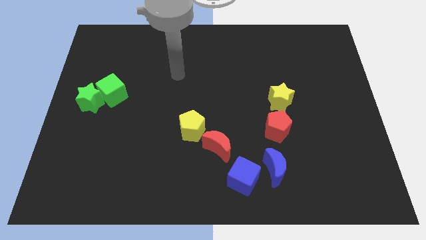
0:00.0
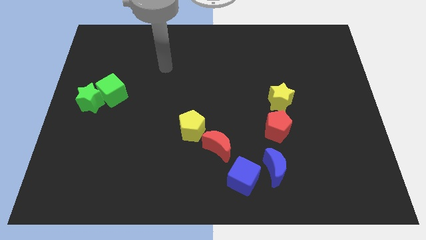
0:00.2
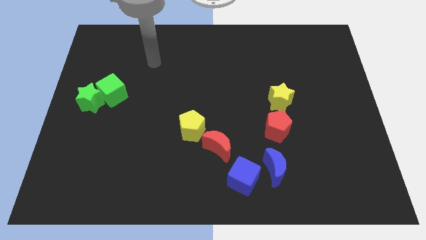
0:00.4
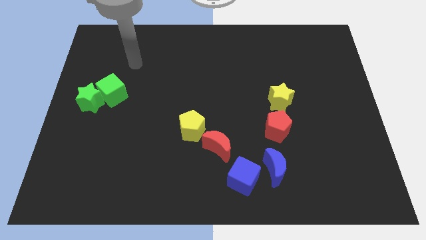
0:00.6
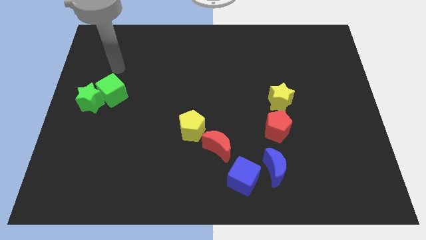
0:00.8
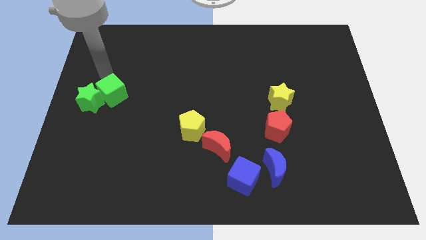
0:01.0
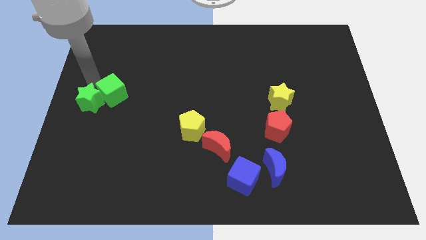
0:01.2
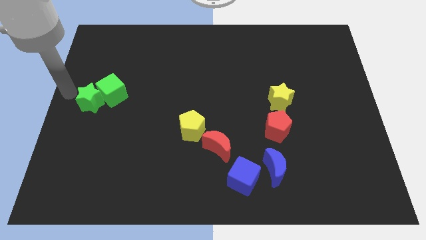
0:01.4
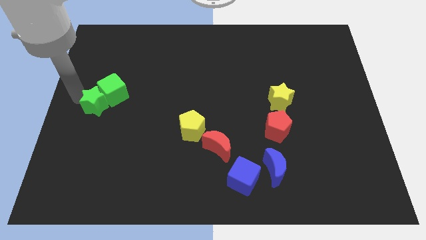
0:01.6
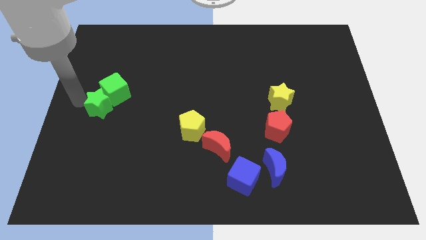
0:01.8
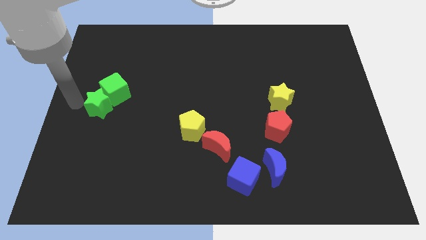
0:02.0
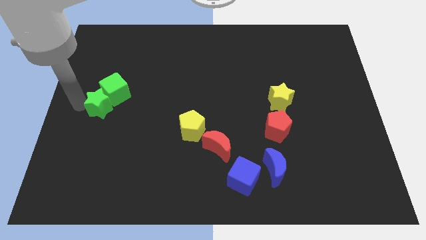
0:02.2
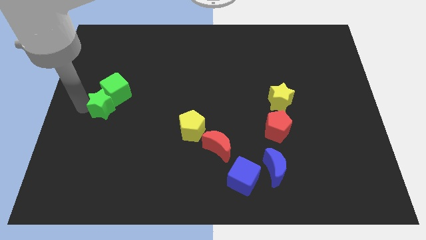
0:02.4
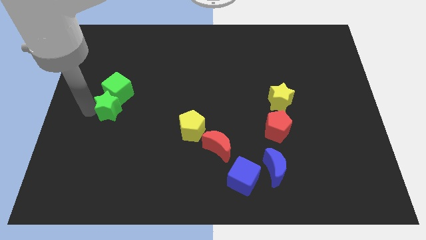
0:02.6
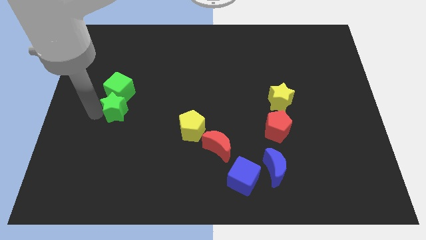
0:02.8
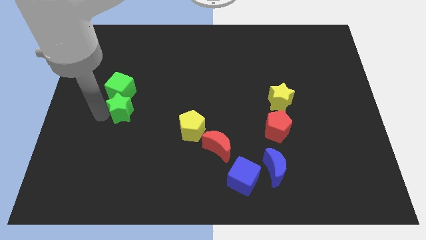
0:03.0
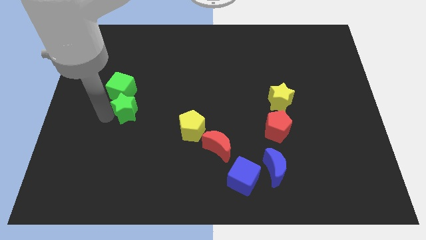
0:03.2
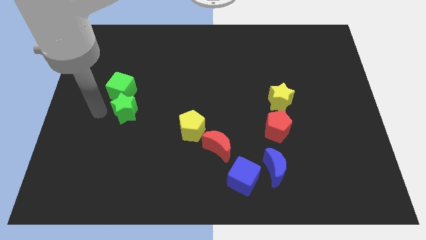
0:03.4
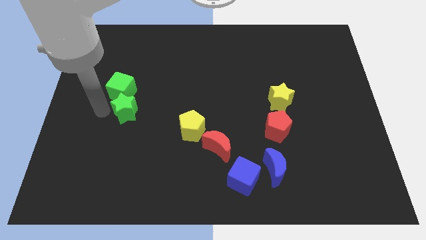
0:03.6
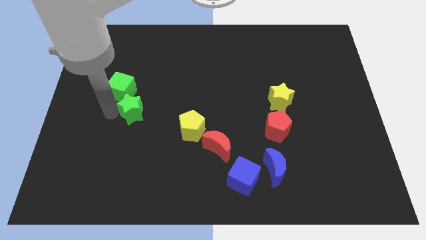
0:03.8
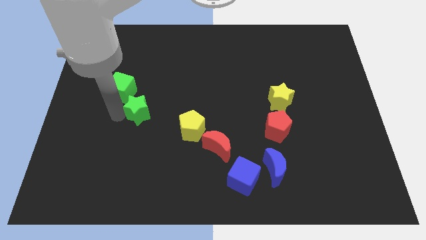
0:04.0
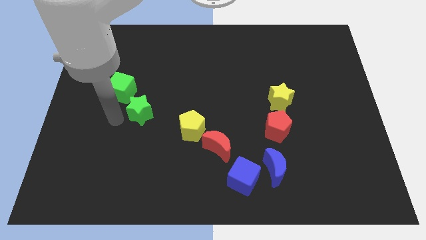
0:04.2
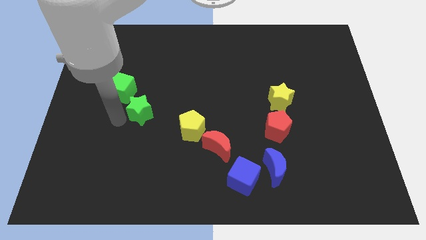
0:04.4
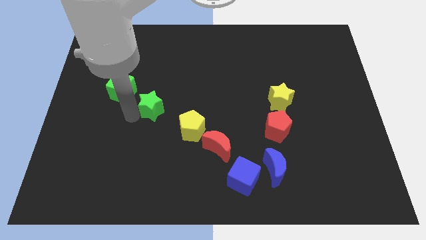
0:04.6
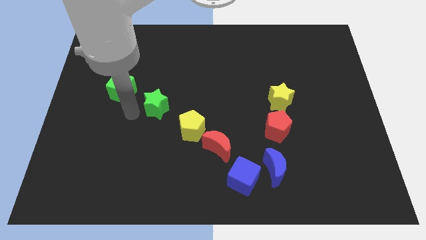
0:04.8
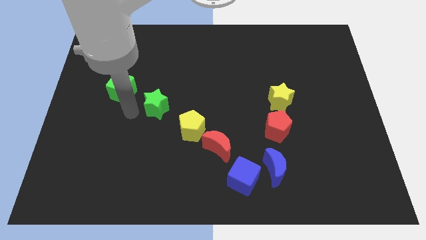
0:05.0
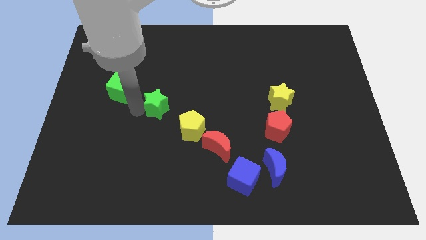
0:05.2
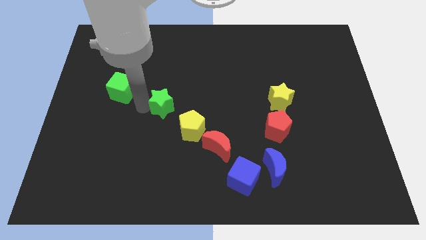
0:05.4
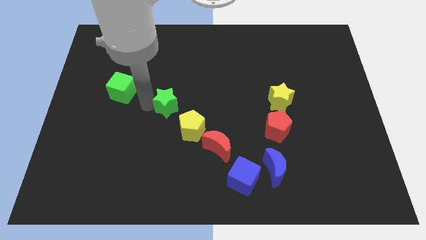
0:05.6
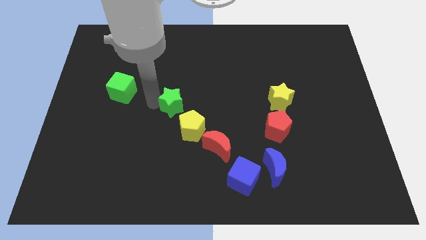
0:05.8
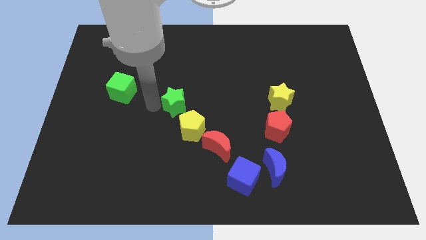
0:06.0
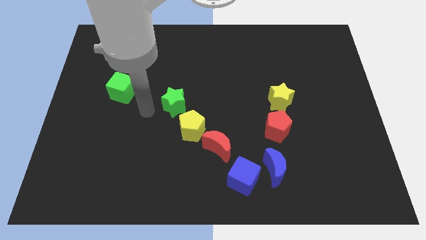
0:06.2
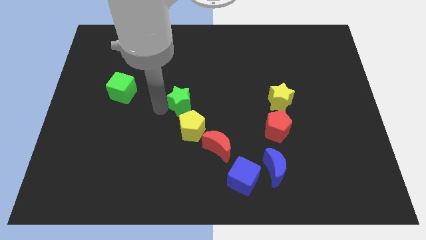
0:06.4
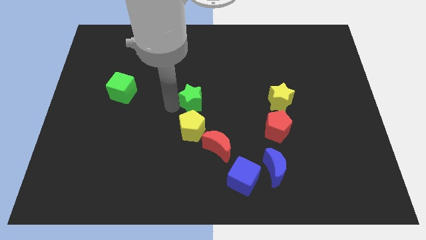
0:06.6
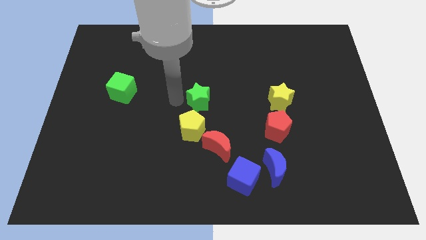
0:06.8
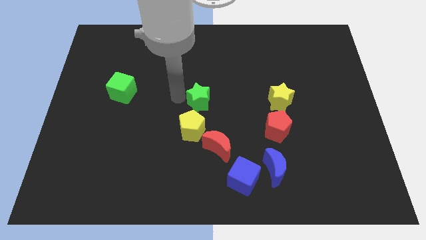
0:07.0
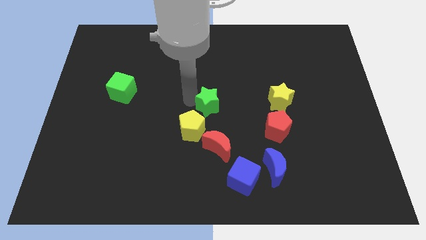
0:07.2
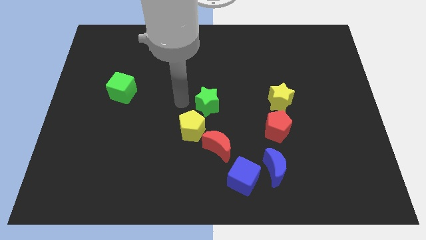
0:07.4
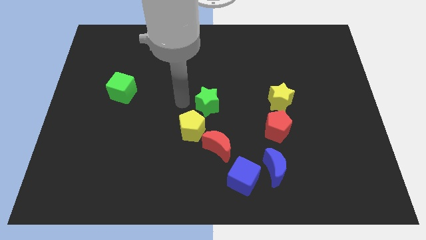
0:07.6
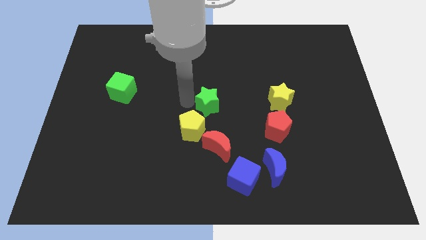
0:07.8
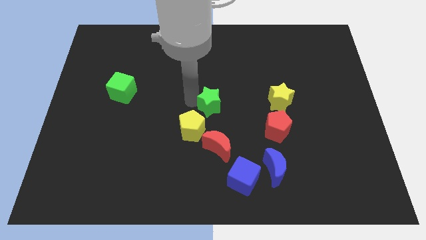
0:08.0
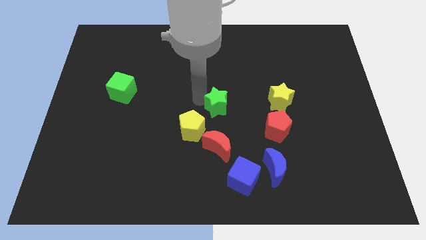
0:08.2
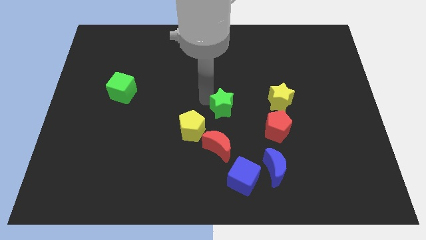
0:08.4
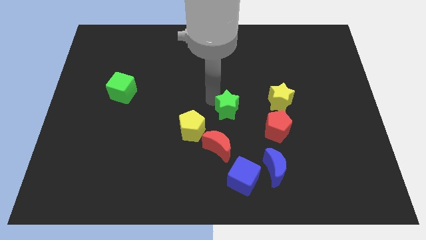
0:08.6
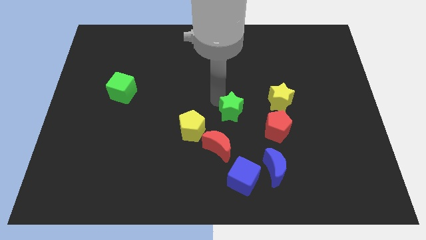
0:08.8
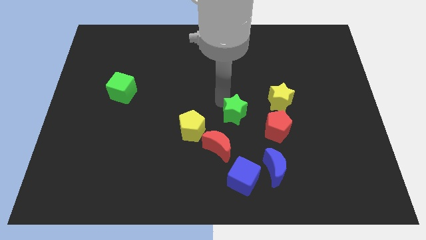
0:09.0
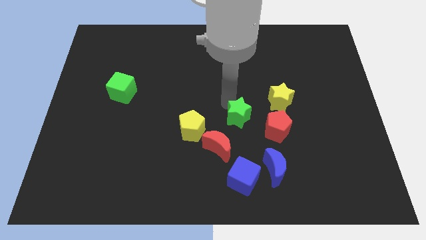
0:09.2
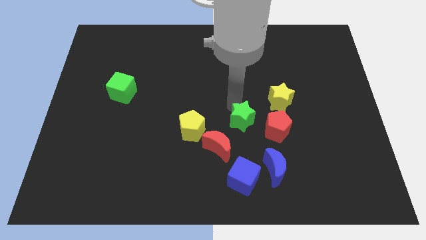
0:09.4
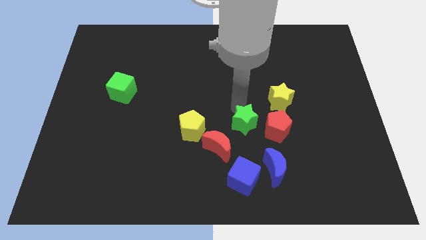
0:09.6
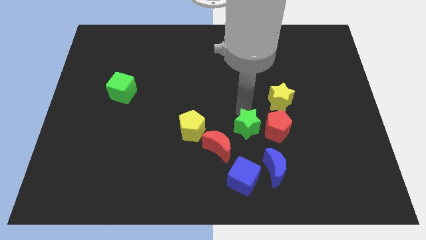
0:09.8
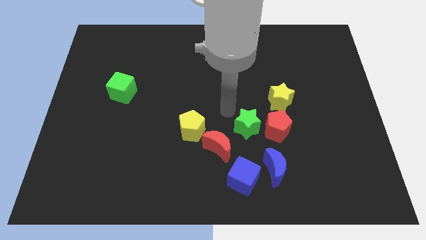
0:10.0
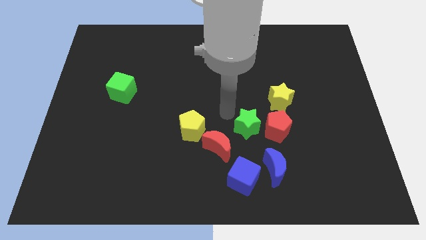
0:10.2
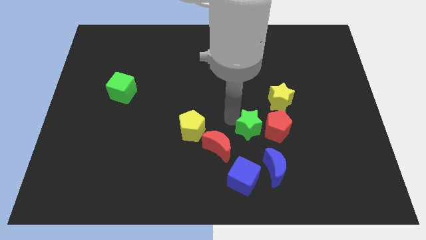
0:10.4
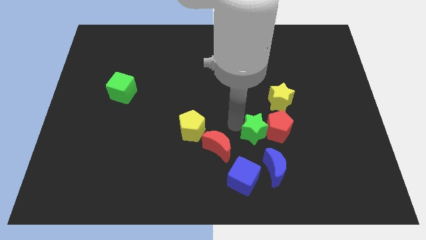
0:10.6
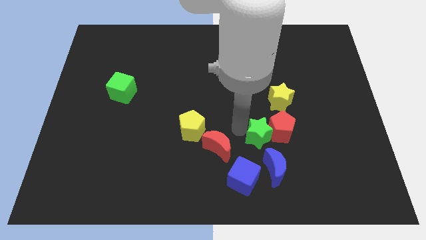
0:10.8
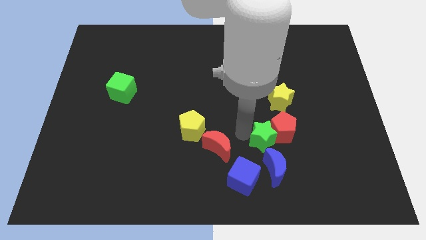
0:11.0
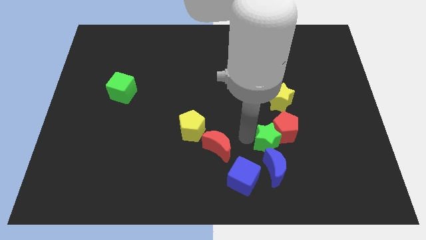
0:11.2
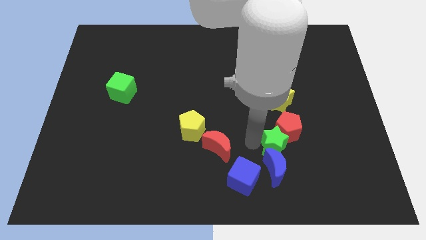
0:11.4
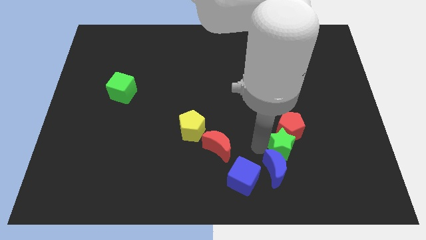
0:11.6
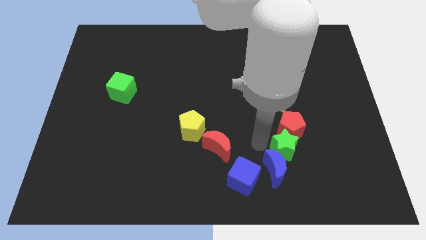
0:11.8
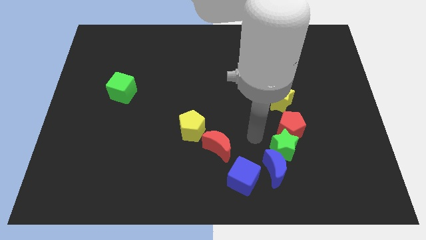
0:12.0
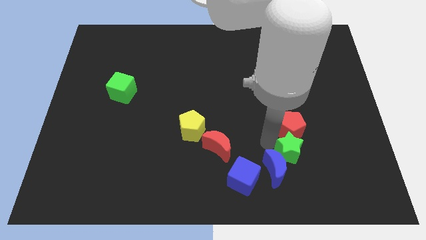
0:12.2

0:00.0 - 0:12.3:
push the green star right of the blue moon

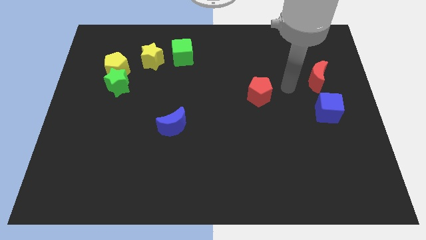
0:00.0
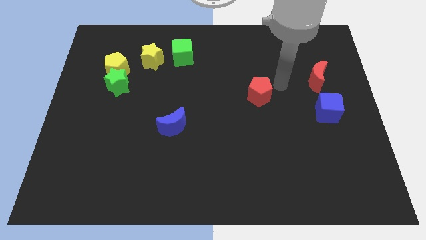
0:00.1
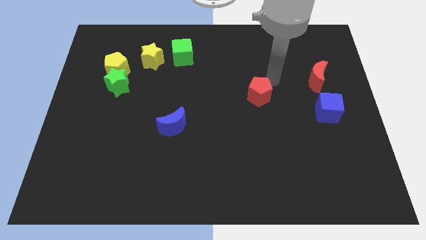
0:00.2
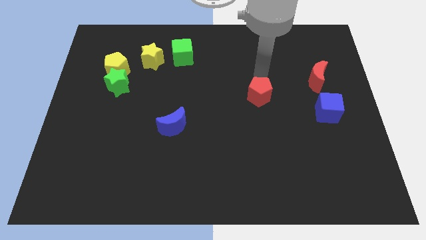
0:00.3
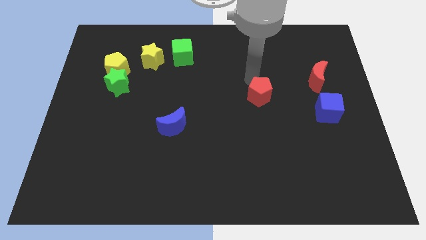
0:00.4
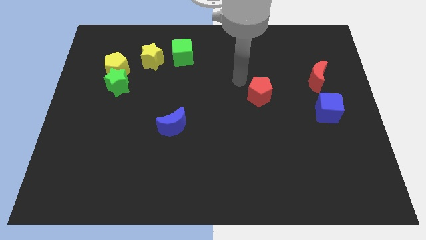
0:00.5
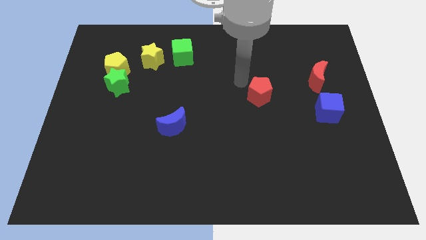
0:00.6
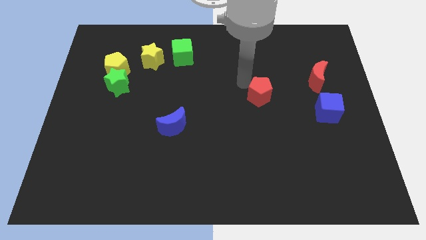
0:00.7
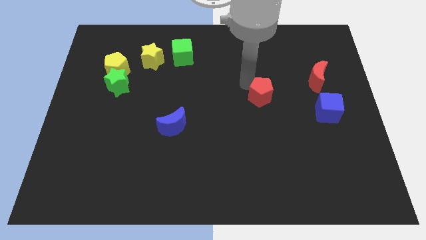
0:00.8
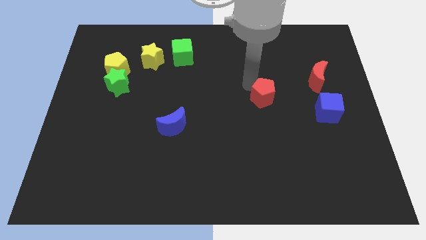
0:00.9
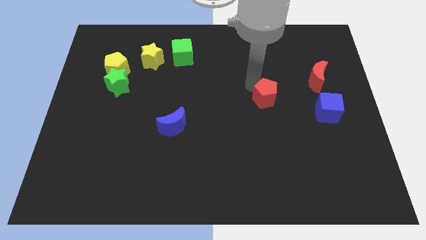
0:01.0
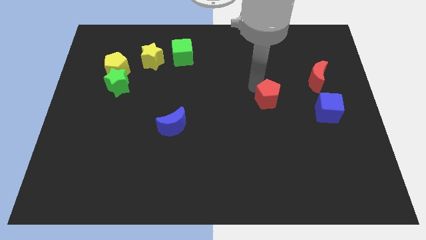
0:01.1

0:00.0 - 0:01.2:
push the red pentagon to the left side of the blue cube
